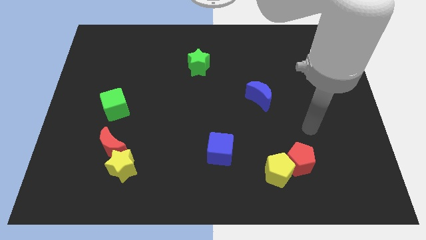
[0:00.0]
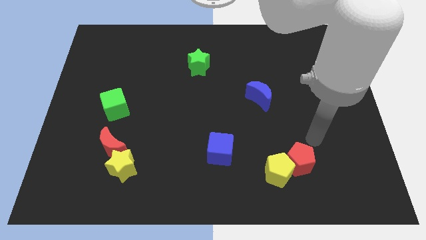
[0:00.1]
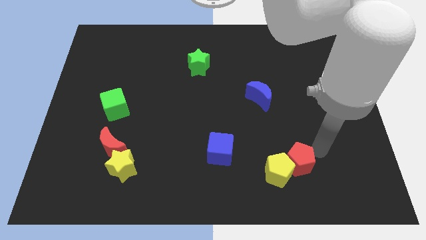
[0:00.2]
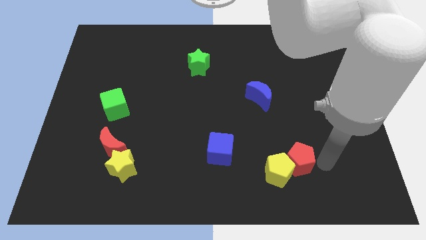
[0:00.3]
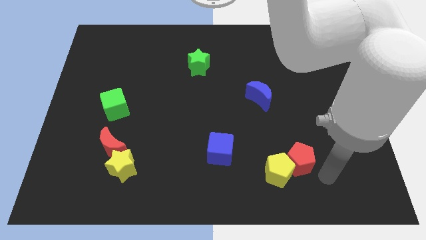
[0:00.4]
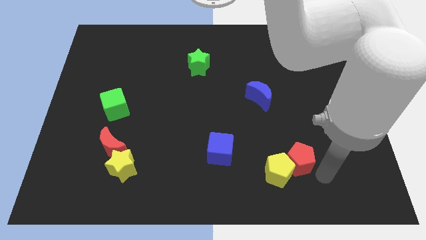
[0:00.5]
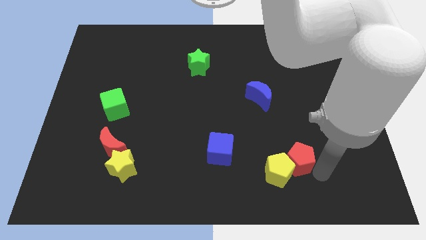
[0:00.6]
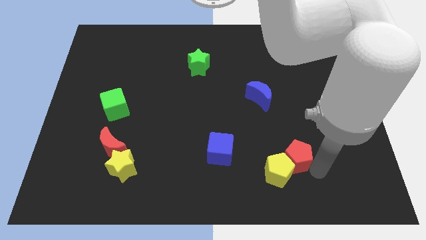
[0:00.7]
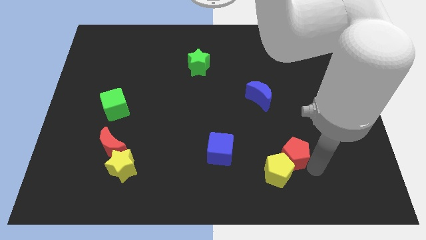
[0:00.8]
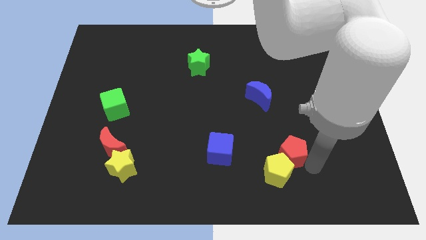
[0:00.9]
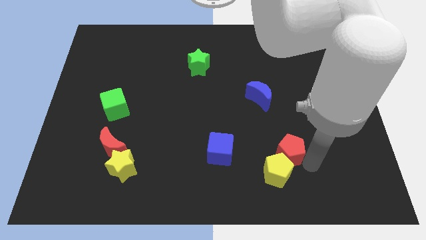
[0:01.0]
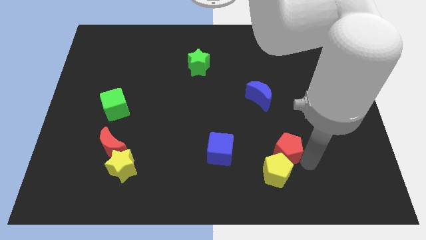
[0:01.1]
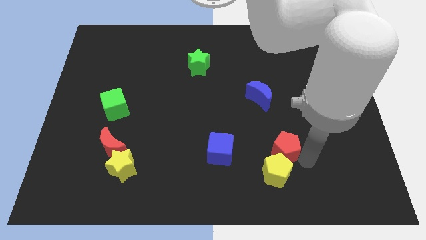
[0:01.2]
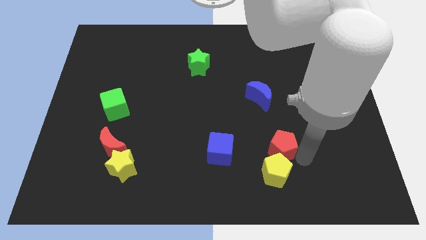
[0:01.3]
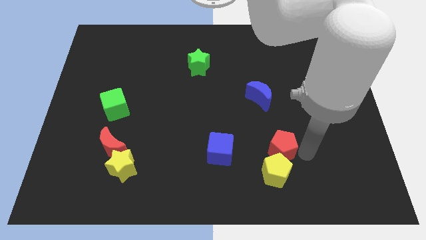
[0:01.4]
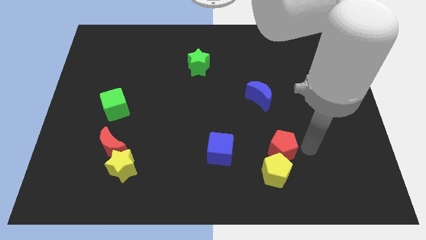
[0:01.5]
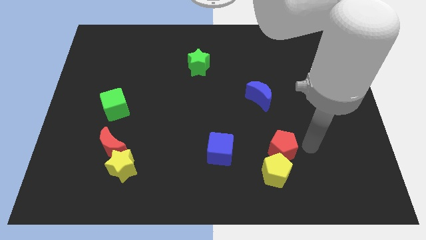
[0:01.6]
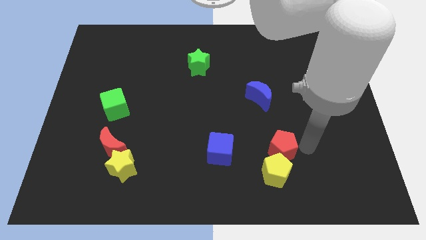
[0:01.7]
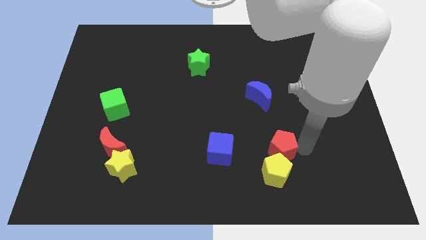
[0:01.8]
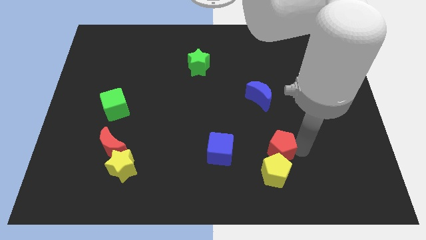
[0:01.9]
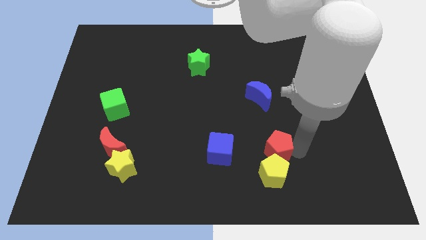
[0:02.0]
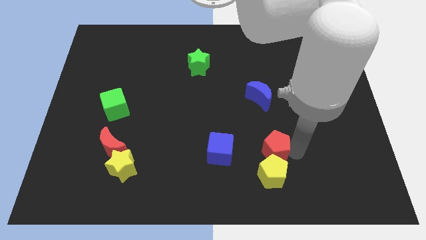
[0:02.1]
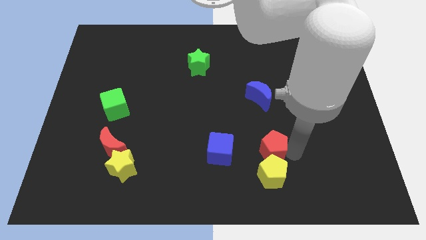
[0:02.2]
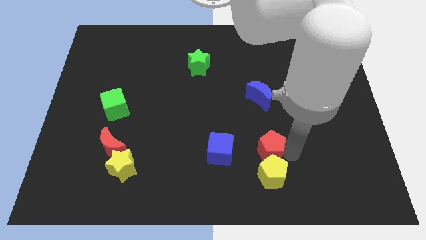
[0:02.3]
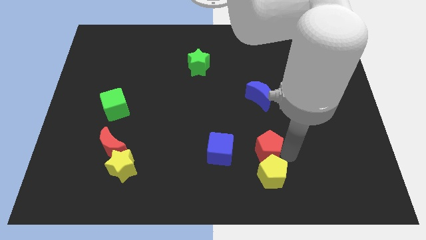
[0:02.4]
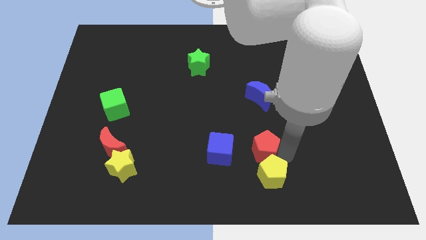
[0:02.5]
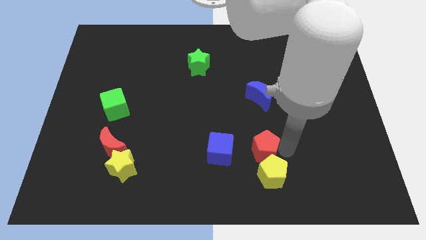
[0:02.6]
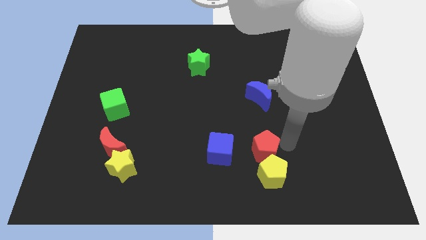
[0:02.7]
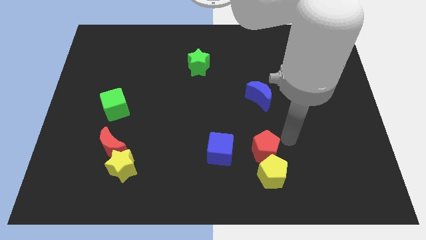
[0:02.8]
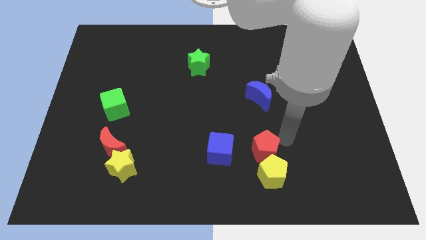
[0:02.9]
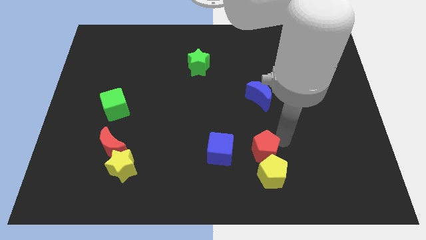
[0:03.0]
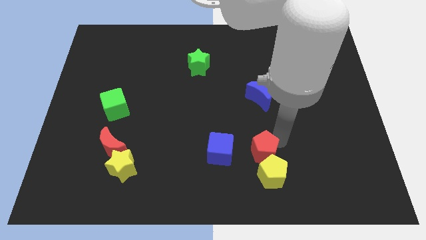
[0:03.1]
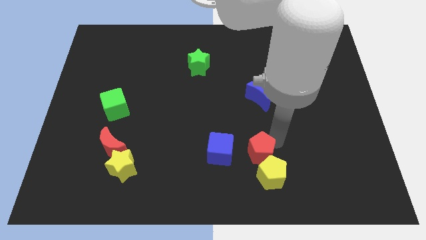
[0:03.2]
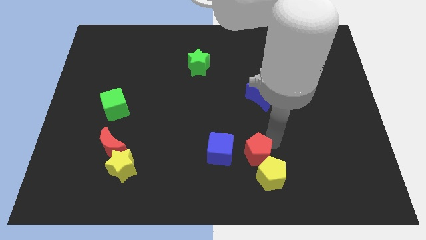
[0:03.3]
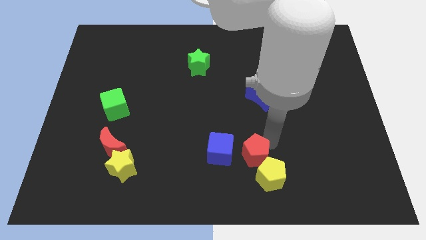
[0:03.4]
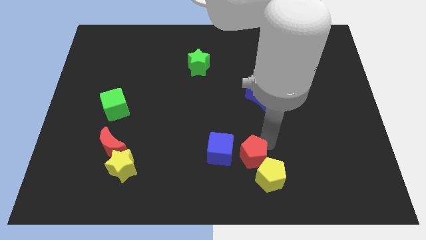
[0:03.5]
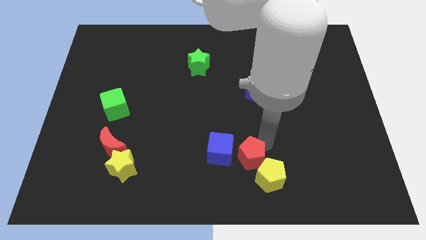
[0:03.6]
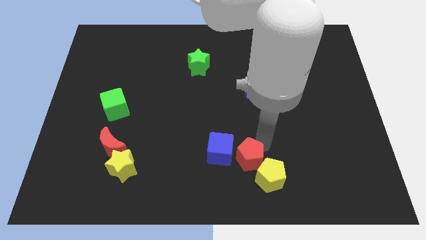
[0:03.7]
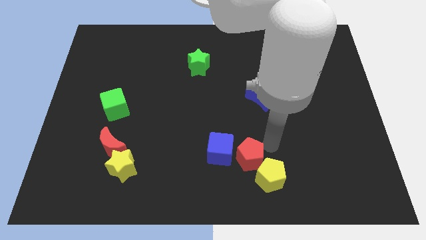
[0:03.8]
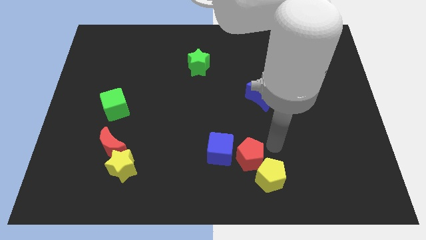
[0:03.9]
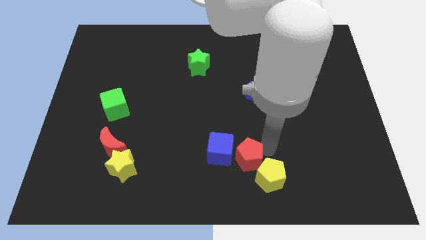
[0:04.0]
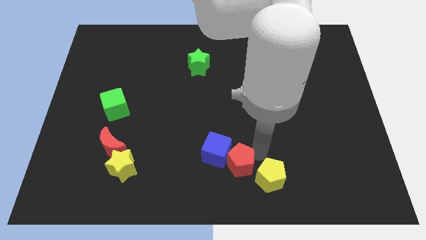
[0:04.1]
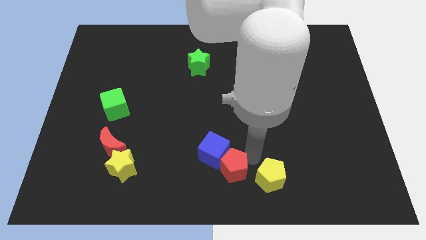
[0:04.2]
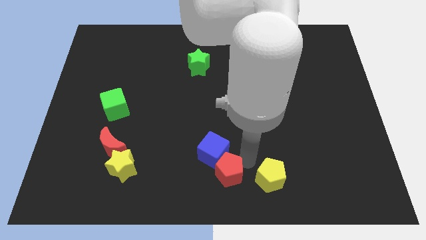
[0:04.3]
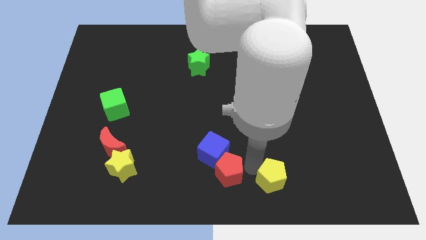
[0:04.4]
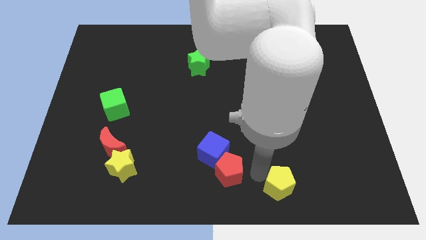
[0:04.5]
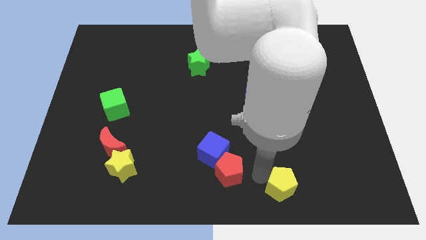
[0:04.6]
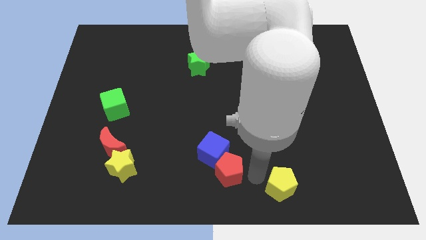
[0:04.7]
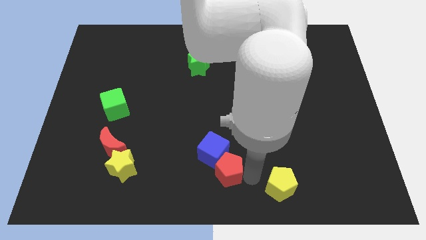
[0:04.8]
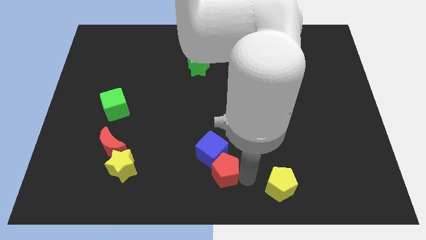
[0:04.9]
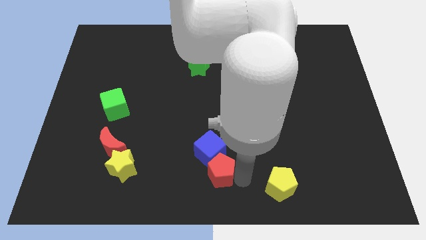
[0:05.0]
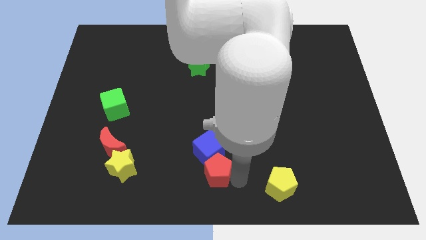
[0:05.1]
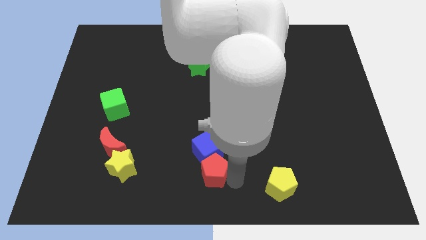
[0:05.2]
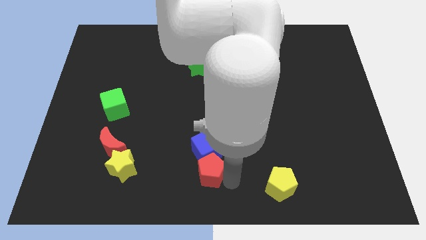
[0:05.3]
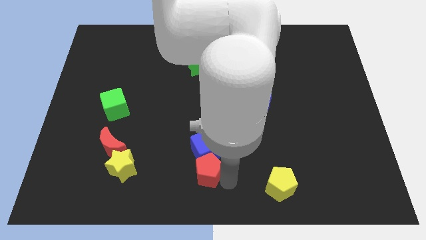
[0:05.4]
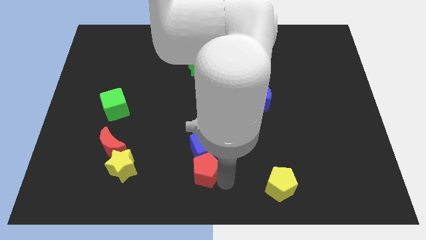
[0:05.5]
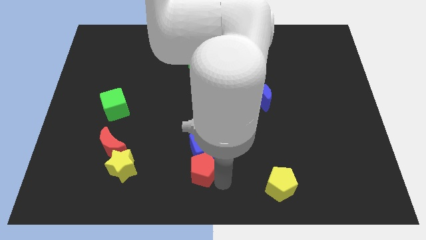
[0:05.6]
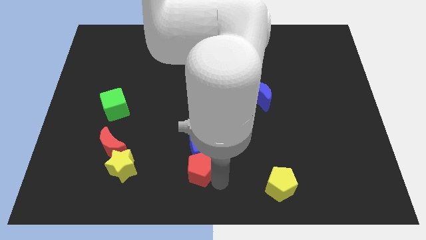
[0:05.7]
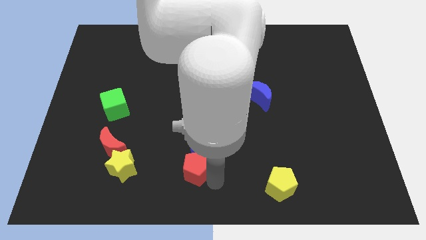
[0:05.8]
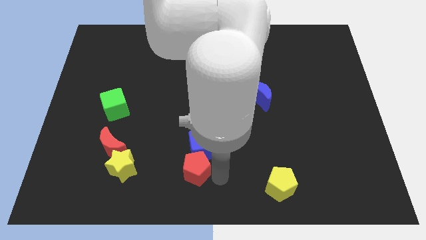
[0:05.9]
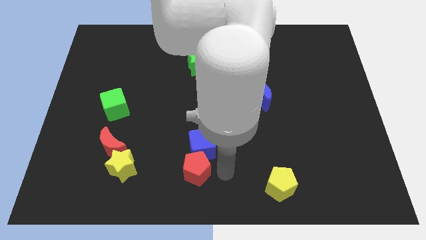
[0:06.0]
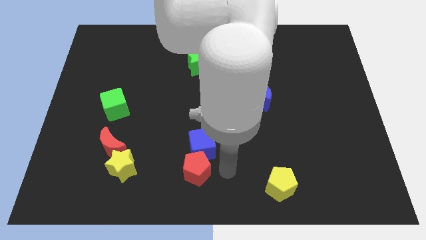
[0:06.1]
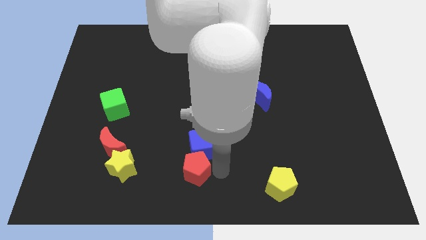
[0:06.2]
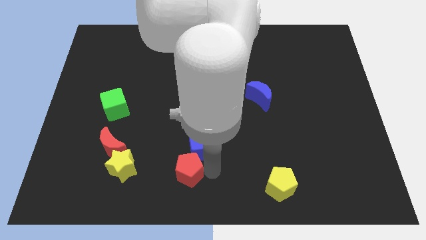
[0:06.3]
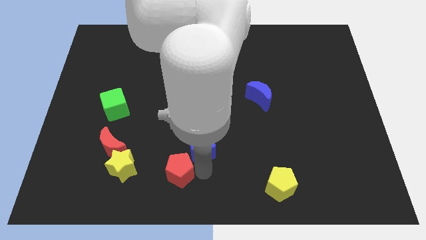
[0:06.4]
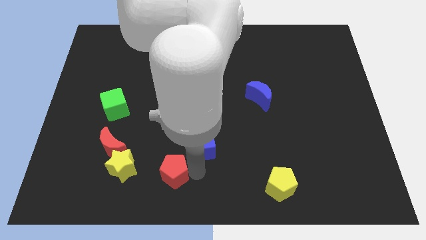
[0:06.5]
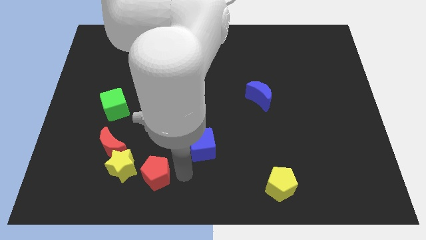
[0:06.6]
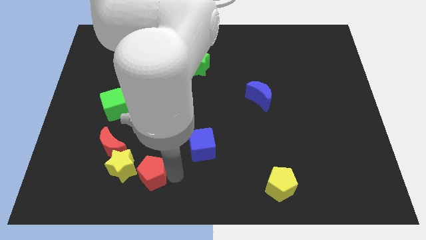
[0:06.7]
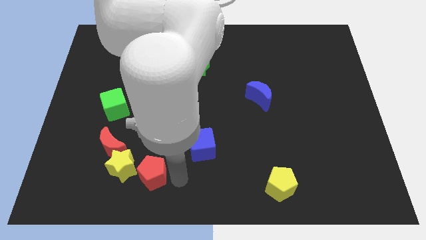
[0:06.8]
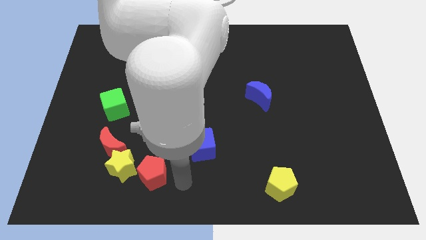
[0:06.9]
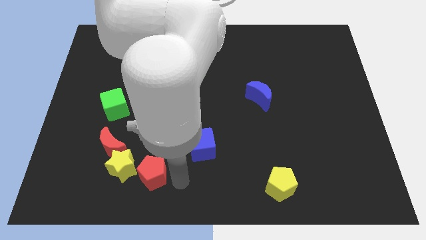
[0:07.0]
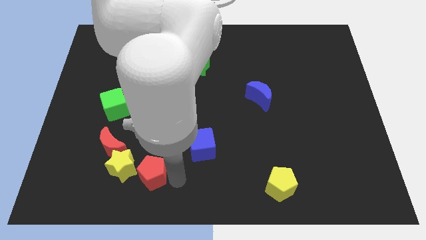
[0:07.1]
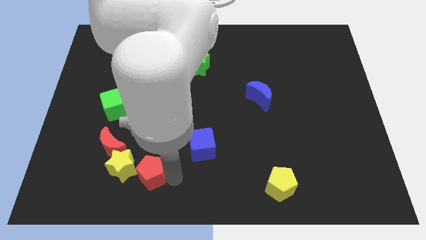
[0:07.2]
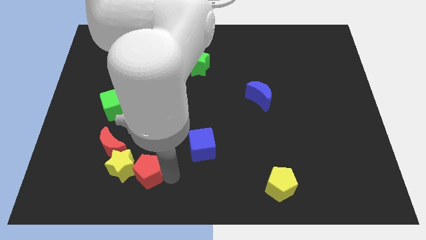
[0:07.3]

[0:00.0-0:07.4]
put the red pentagon next to the yellow star
